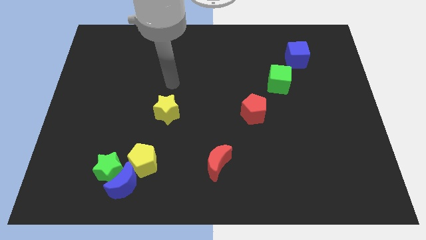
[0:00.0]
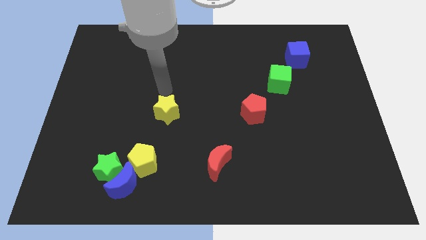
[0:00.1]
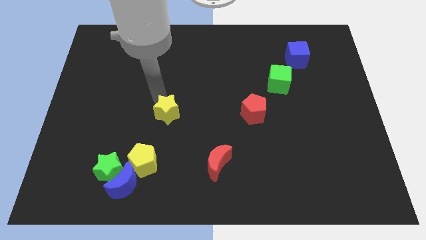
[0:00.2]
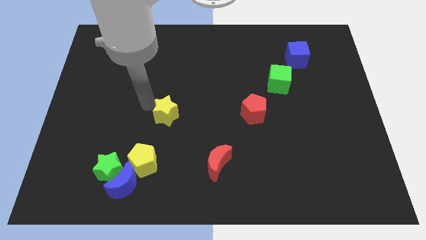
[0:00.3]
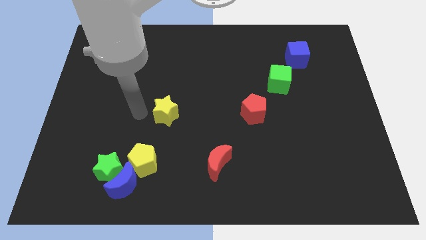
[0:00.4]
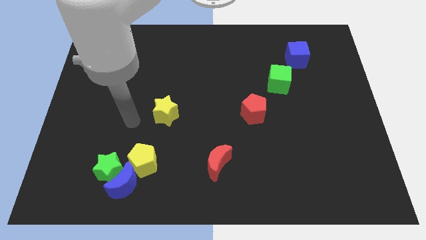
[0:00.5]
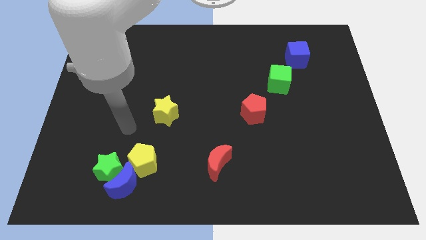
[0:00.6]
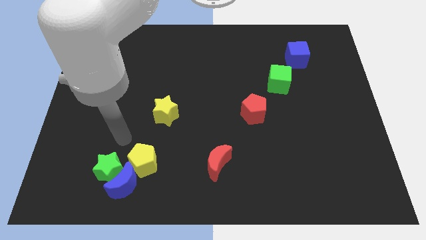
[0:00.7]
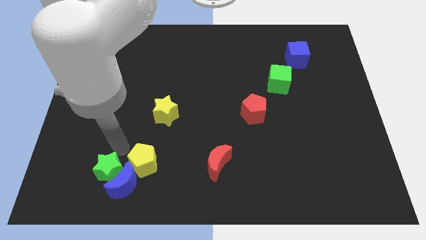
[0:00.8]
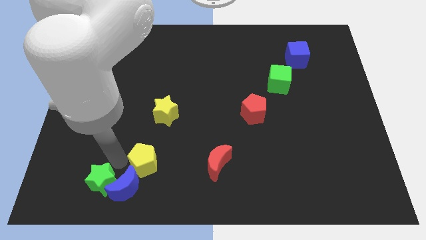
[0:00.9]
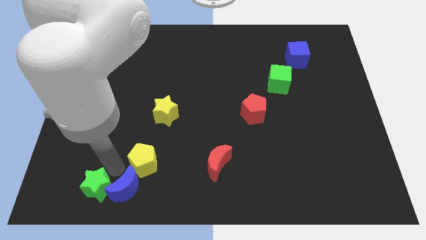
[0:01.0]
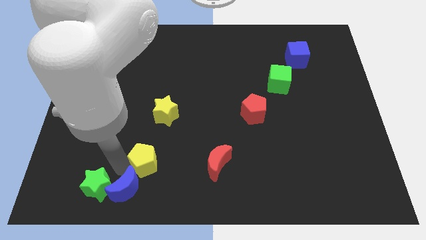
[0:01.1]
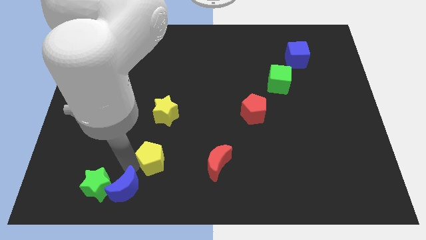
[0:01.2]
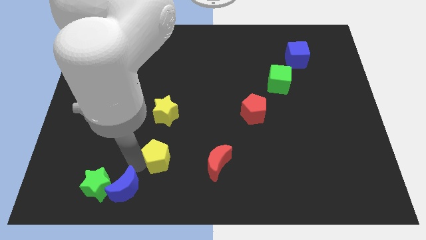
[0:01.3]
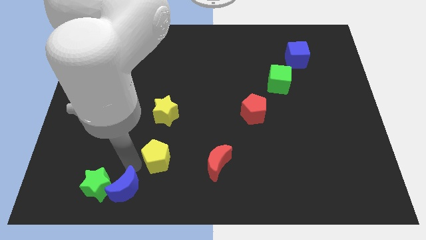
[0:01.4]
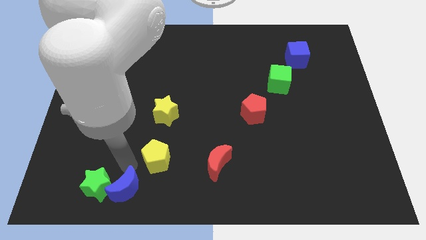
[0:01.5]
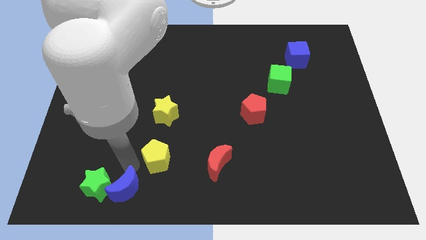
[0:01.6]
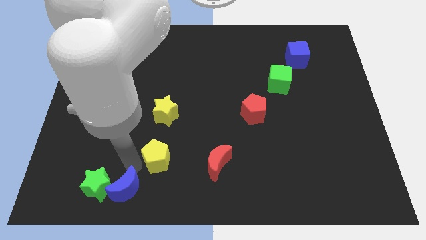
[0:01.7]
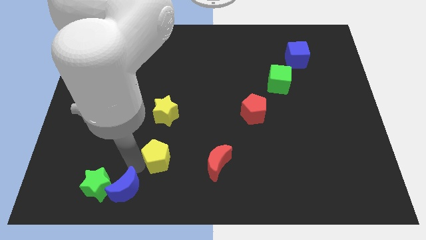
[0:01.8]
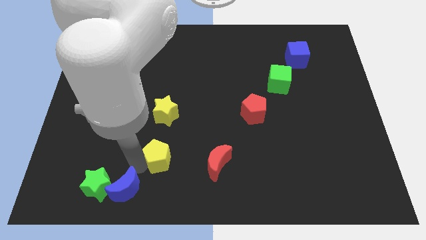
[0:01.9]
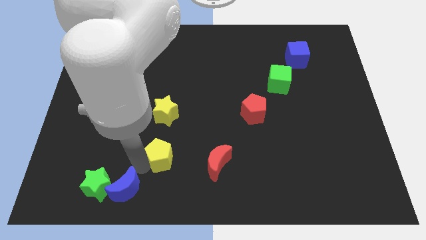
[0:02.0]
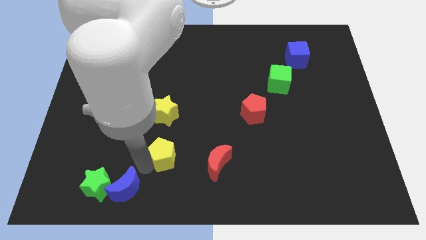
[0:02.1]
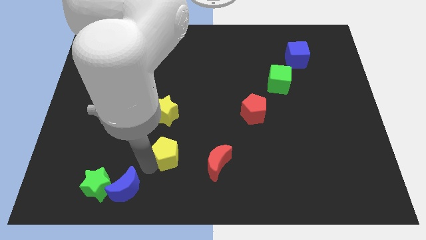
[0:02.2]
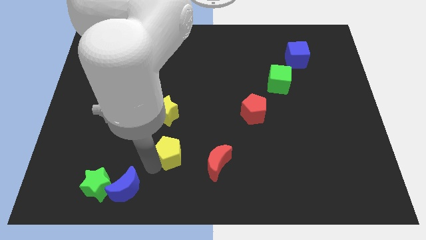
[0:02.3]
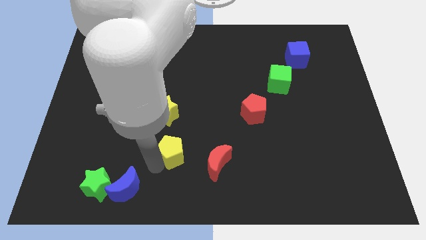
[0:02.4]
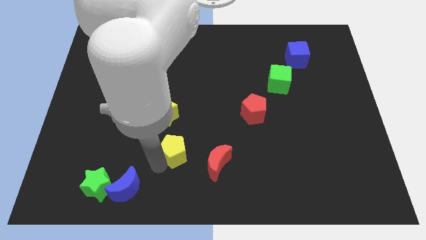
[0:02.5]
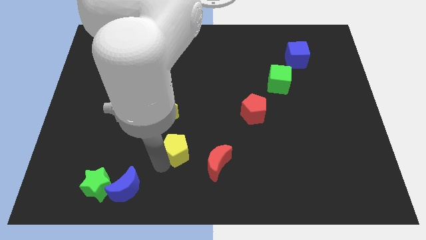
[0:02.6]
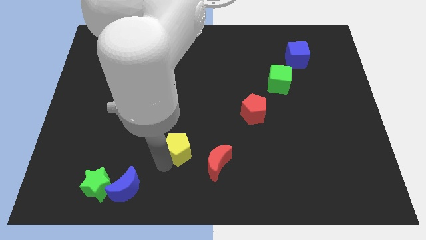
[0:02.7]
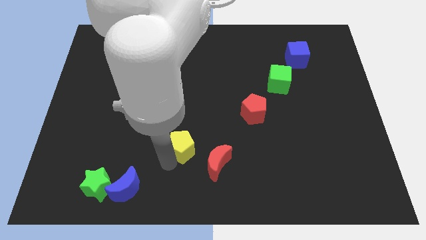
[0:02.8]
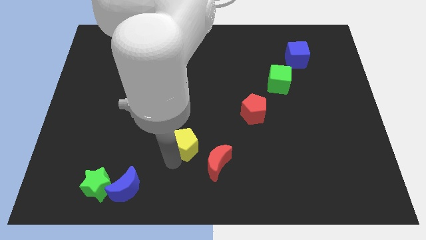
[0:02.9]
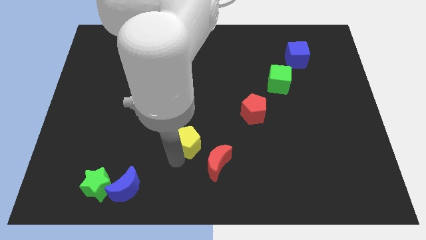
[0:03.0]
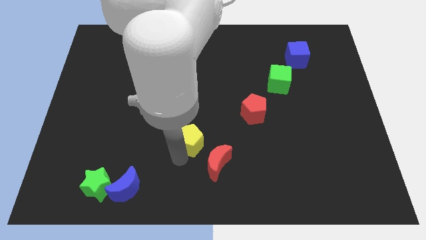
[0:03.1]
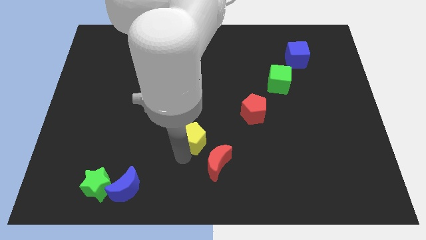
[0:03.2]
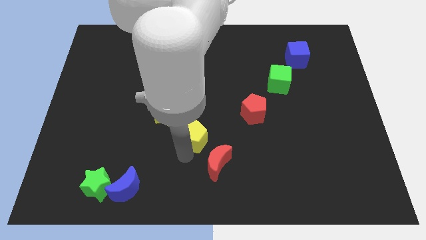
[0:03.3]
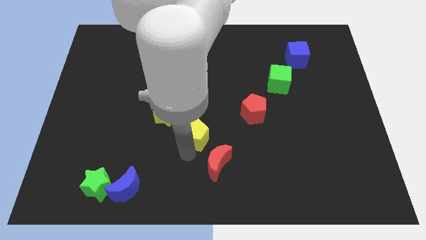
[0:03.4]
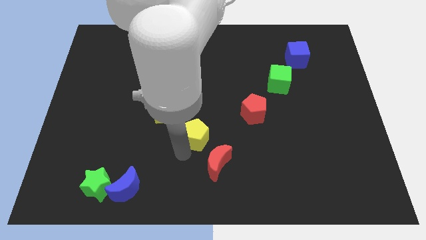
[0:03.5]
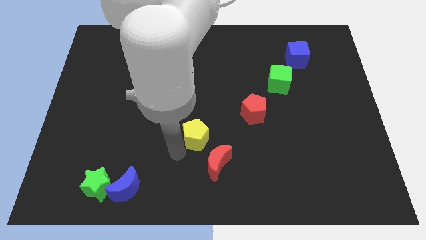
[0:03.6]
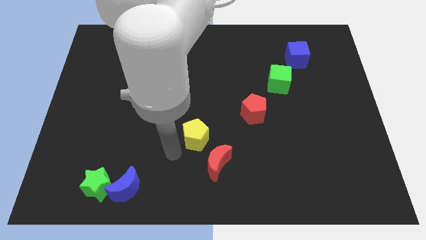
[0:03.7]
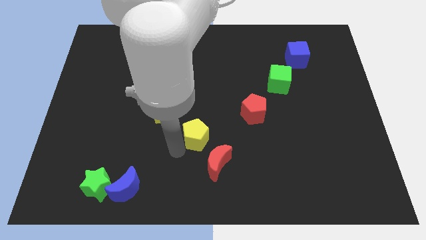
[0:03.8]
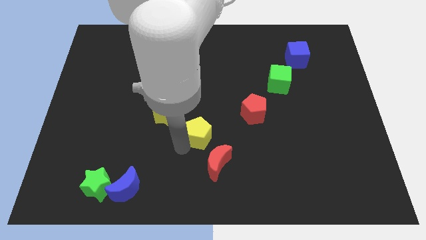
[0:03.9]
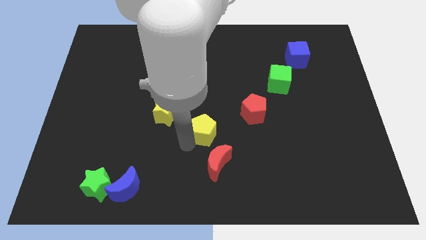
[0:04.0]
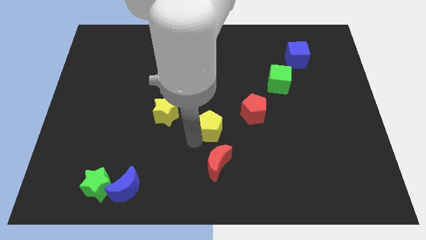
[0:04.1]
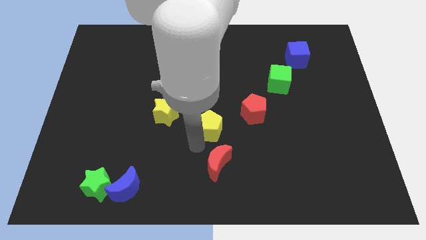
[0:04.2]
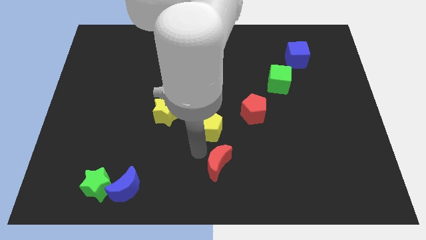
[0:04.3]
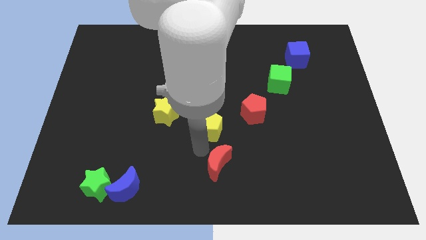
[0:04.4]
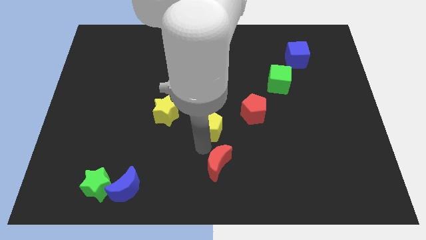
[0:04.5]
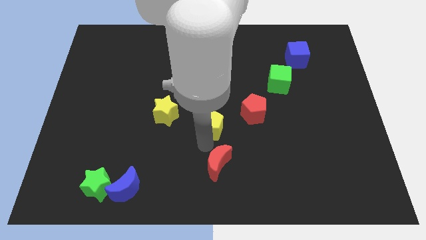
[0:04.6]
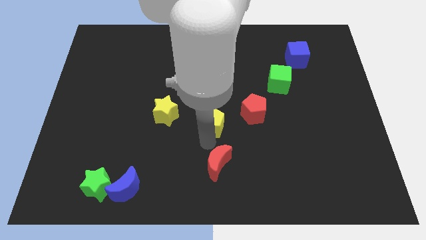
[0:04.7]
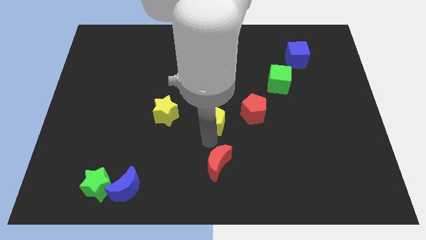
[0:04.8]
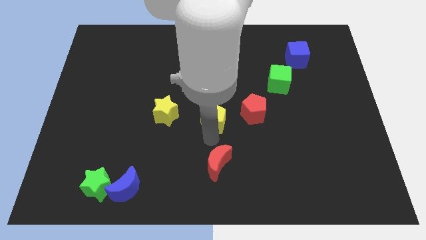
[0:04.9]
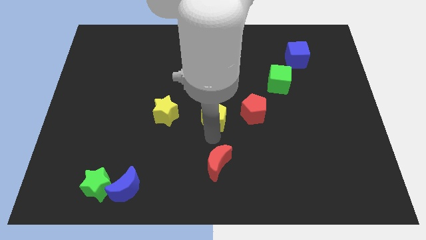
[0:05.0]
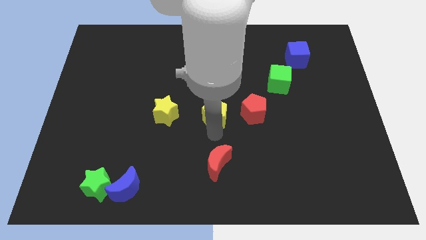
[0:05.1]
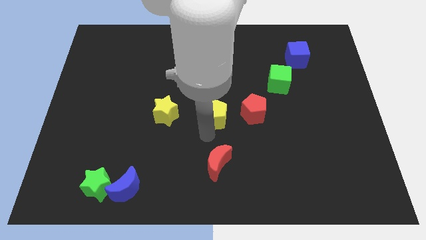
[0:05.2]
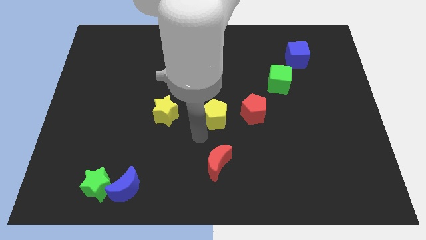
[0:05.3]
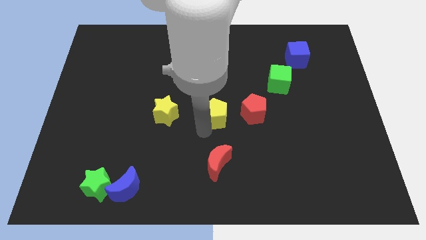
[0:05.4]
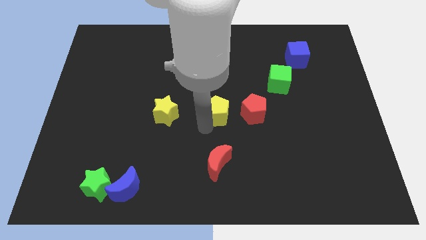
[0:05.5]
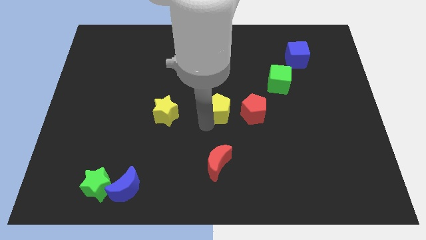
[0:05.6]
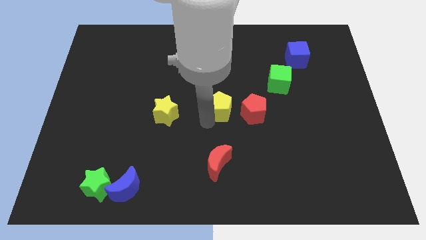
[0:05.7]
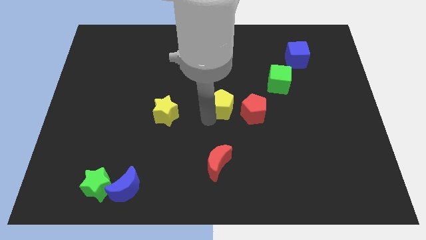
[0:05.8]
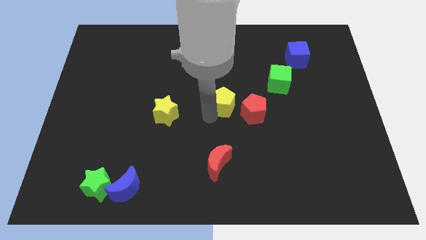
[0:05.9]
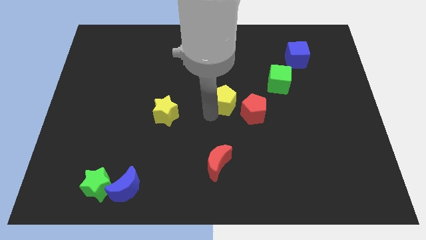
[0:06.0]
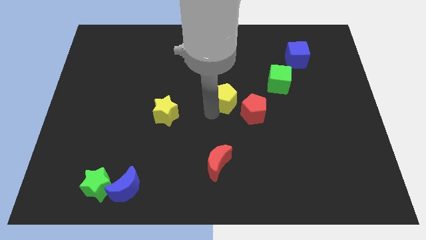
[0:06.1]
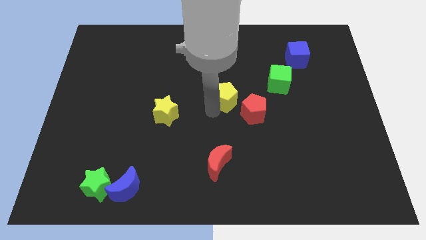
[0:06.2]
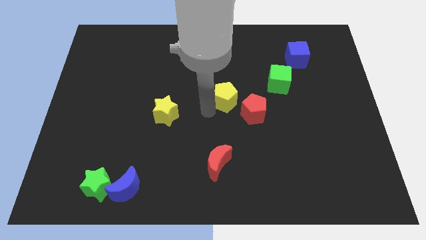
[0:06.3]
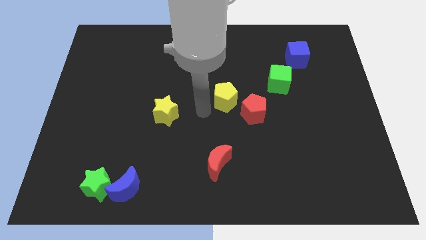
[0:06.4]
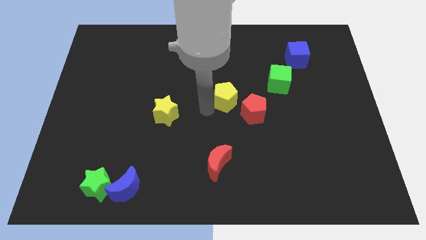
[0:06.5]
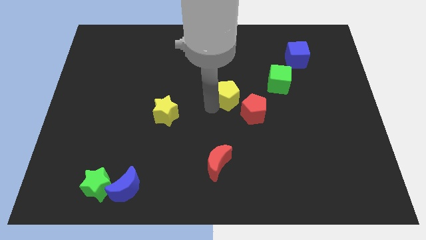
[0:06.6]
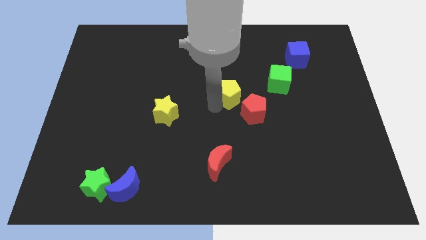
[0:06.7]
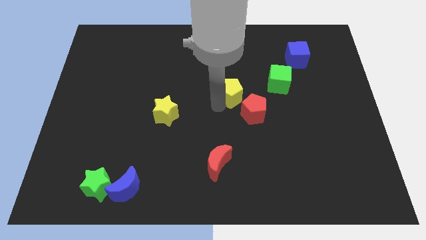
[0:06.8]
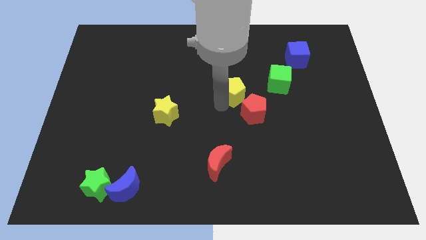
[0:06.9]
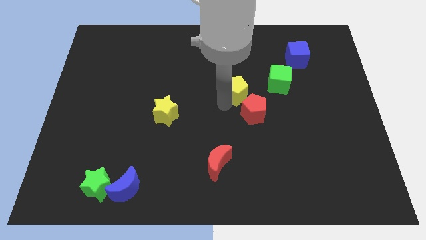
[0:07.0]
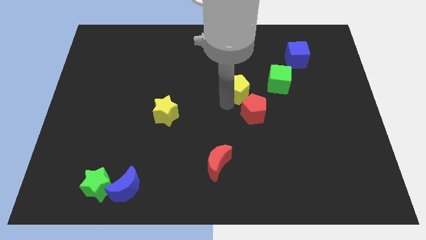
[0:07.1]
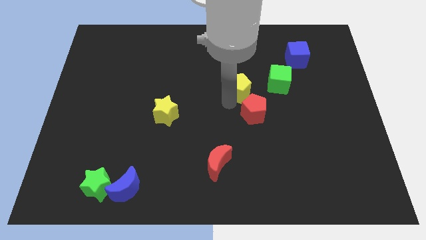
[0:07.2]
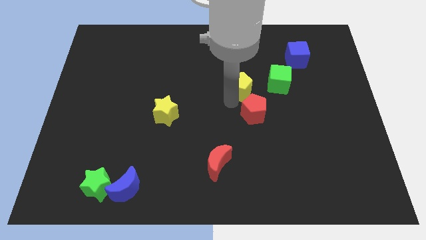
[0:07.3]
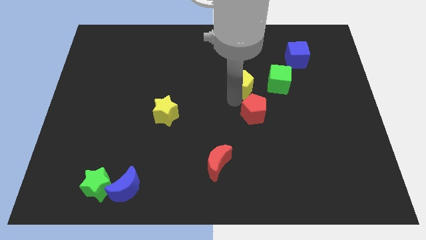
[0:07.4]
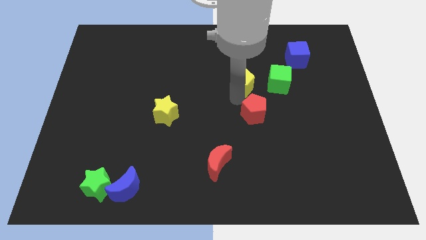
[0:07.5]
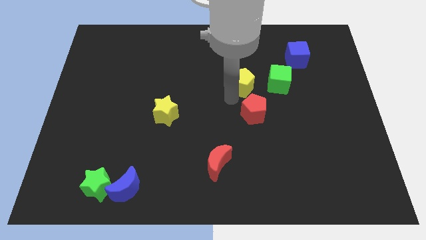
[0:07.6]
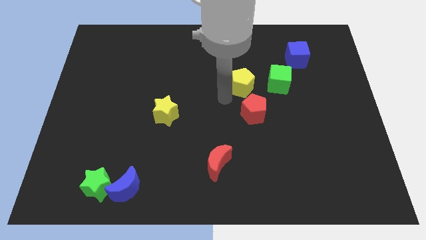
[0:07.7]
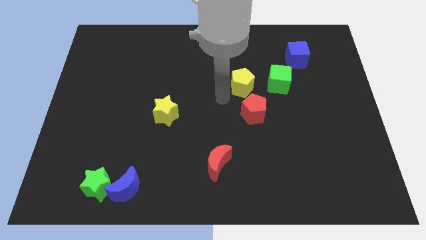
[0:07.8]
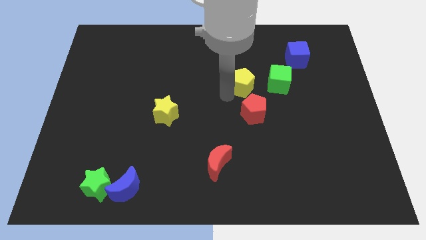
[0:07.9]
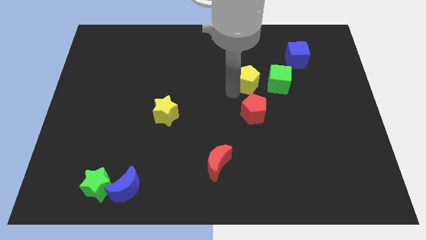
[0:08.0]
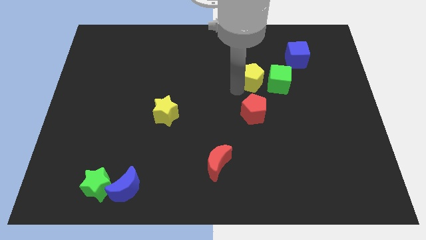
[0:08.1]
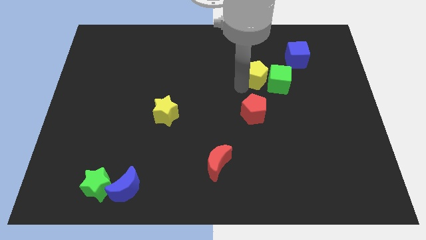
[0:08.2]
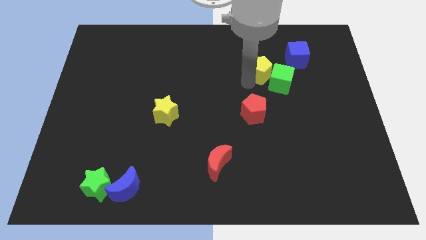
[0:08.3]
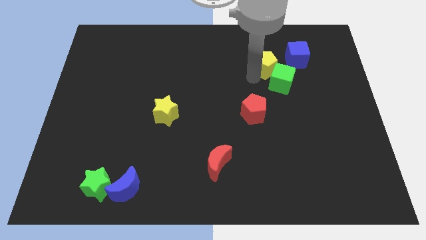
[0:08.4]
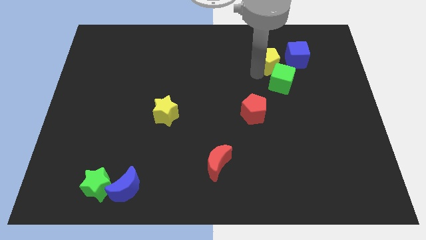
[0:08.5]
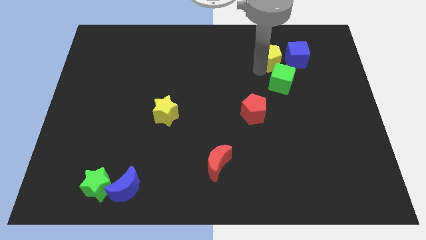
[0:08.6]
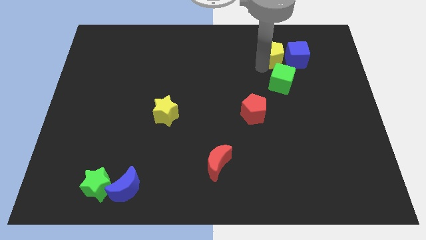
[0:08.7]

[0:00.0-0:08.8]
push the yellow pentagon to the blue cube
